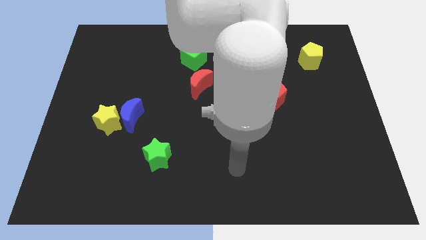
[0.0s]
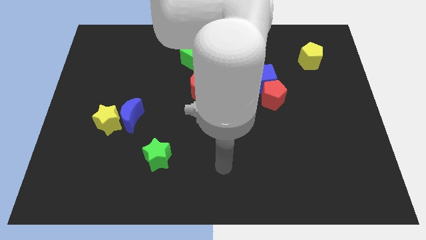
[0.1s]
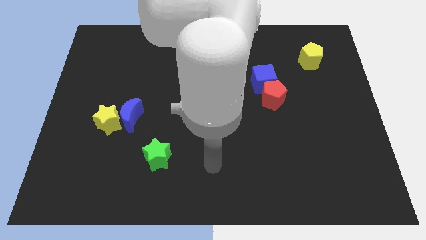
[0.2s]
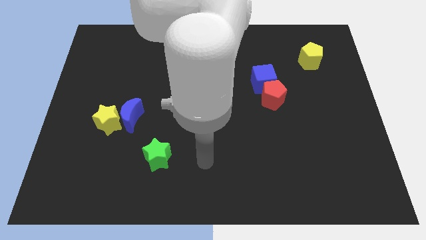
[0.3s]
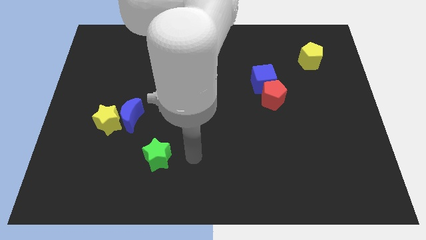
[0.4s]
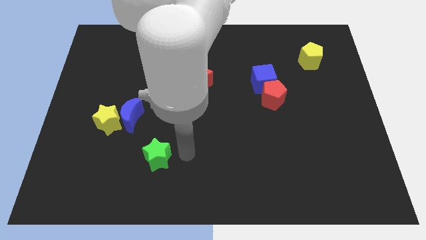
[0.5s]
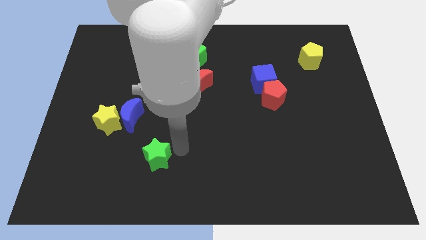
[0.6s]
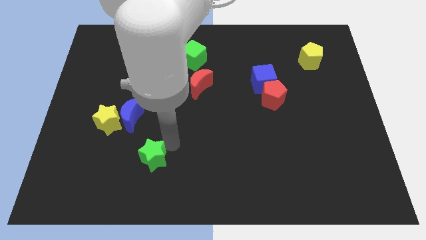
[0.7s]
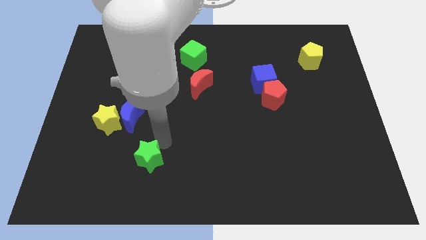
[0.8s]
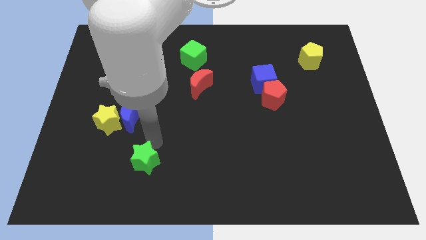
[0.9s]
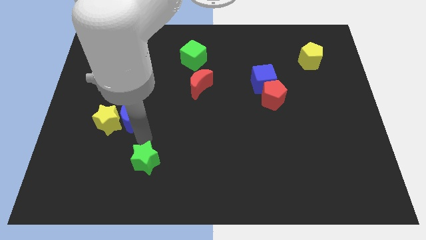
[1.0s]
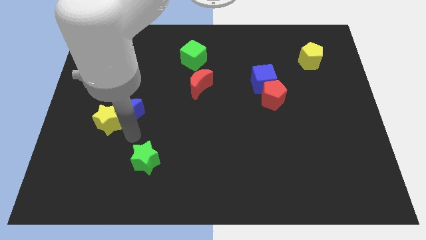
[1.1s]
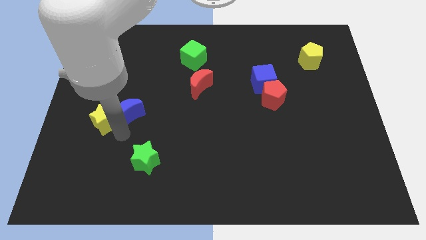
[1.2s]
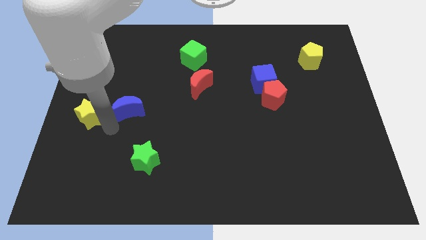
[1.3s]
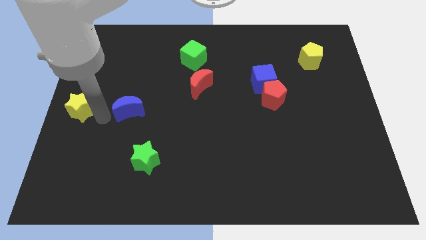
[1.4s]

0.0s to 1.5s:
pull the blue moon apart from the yellow star

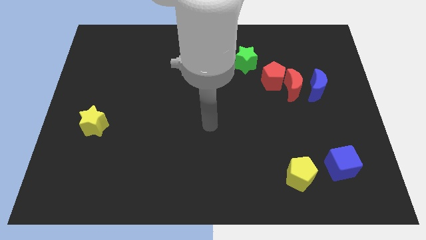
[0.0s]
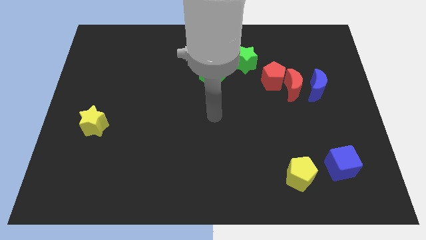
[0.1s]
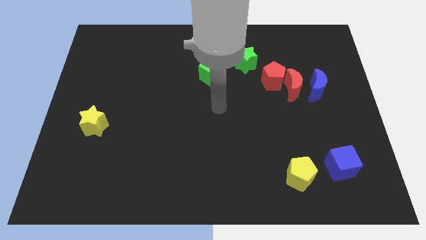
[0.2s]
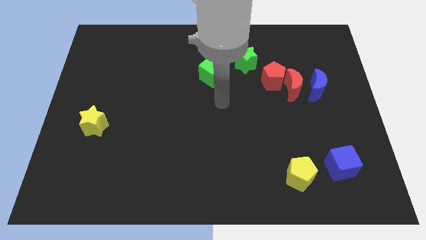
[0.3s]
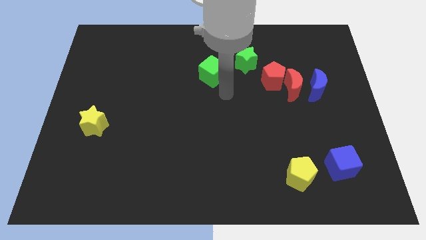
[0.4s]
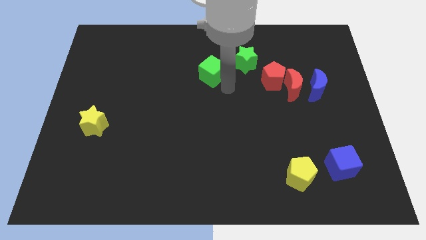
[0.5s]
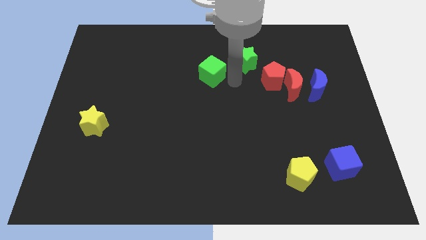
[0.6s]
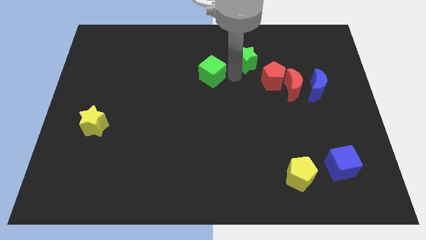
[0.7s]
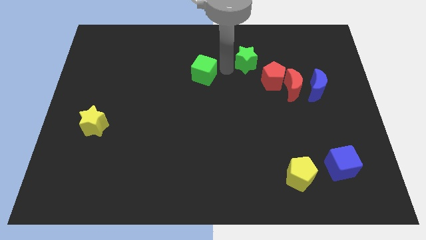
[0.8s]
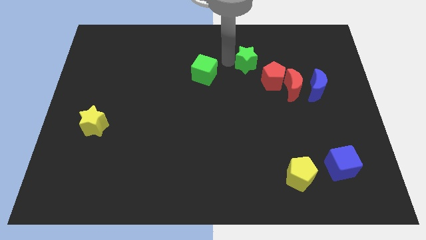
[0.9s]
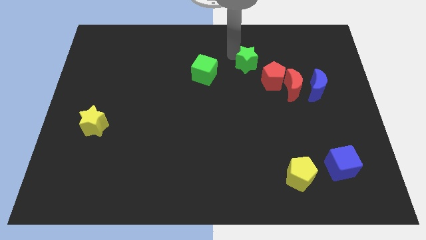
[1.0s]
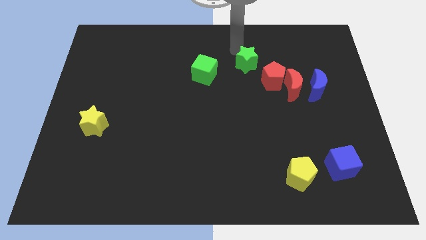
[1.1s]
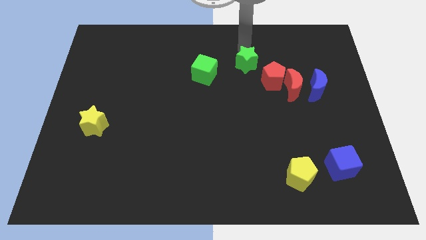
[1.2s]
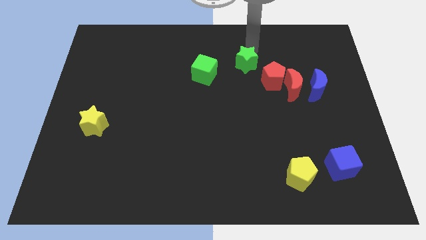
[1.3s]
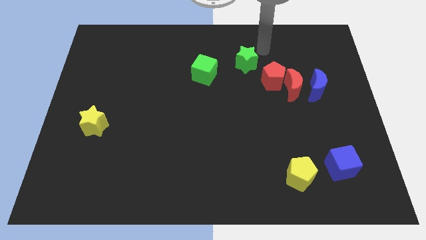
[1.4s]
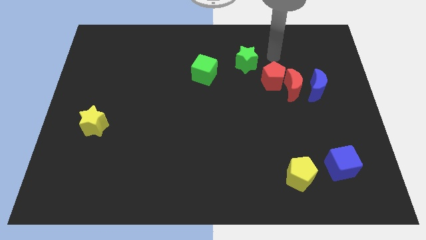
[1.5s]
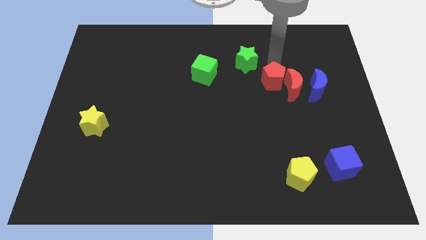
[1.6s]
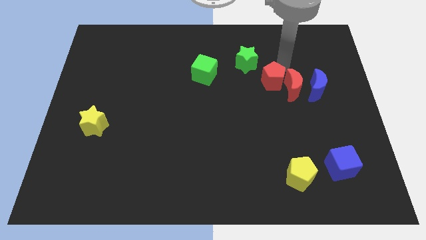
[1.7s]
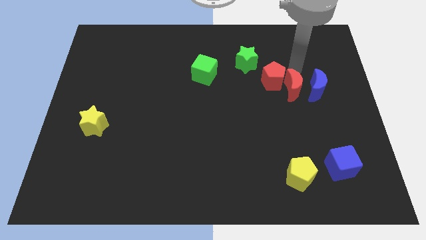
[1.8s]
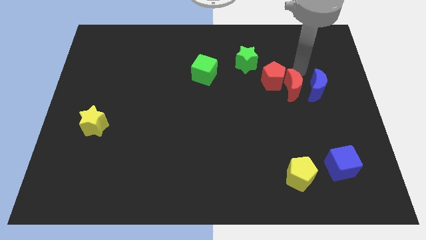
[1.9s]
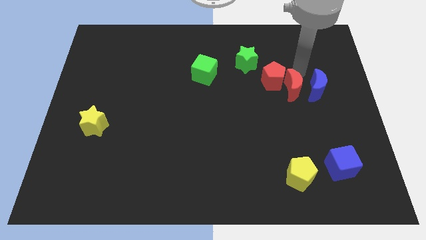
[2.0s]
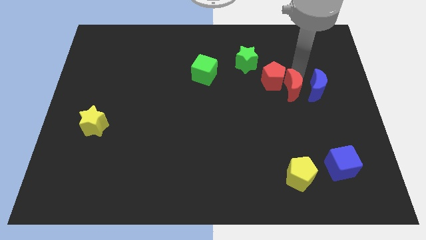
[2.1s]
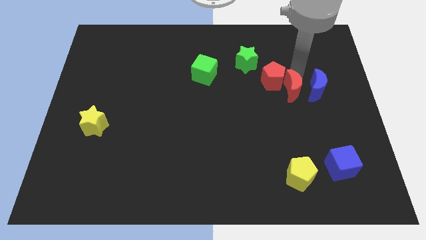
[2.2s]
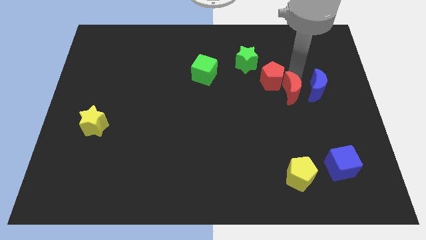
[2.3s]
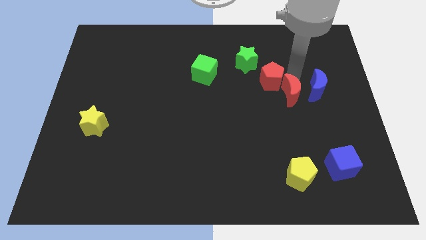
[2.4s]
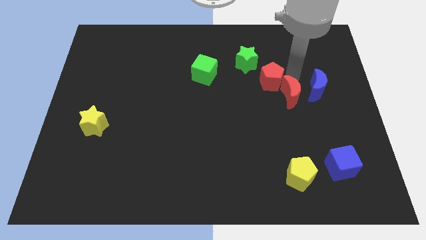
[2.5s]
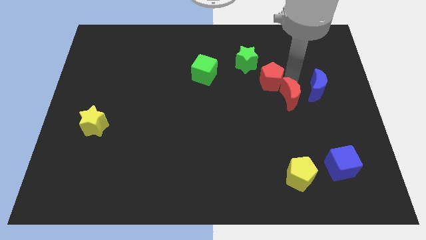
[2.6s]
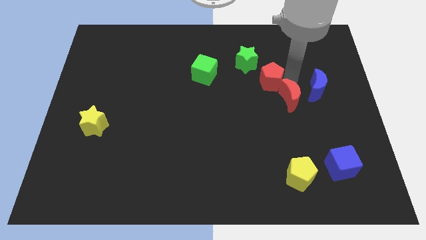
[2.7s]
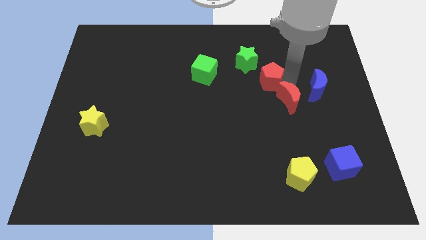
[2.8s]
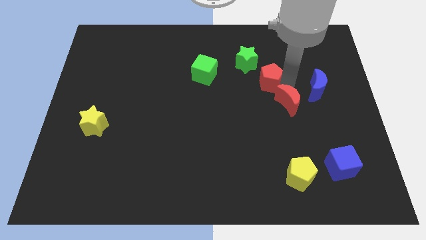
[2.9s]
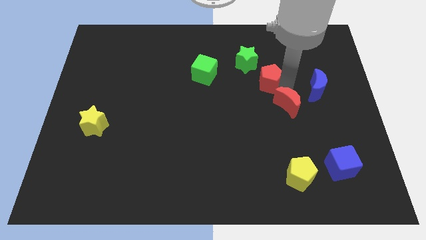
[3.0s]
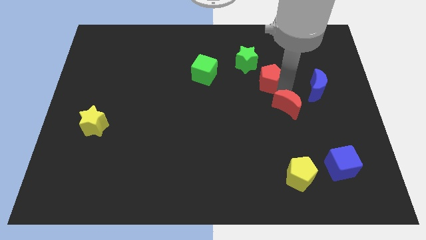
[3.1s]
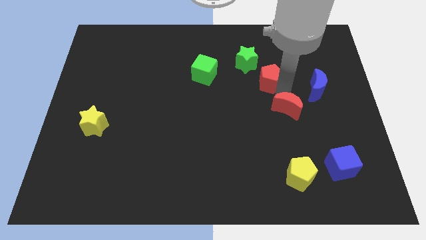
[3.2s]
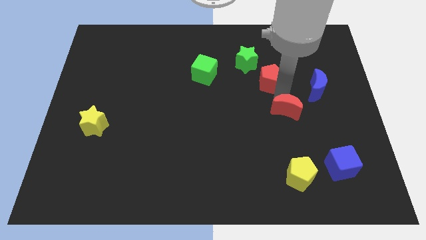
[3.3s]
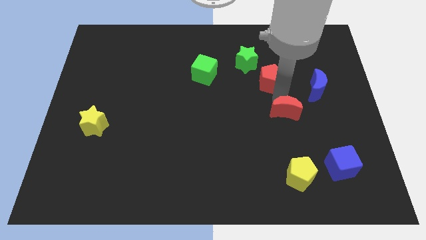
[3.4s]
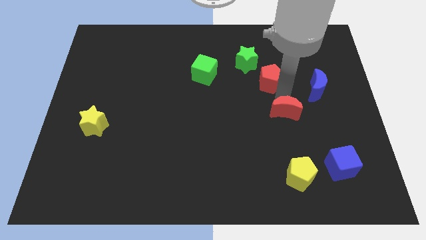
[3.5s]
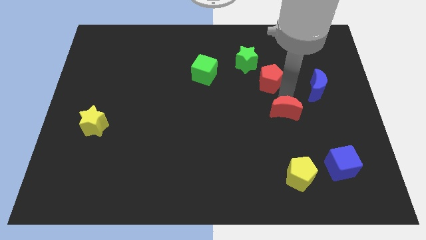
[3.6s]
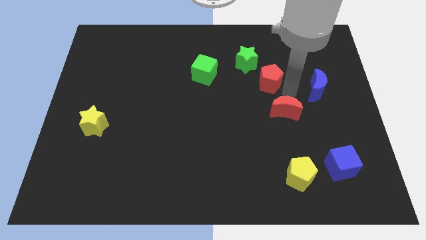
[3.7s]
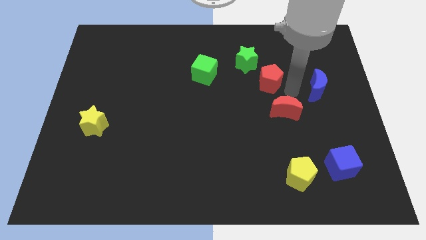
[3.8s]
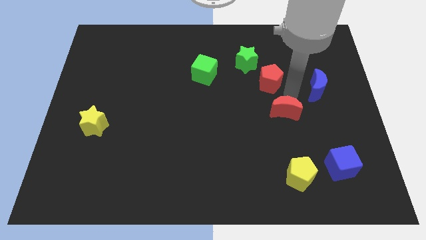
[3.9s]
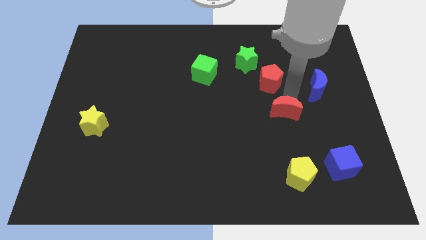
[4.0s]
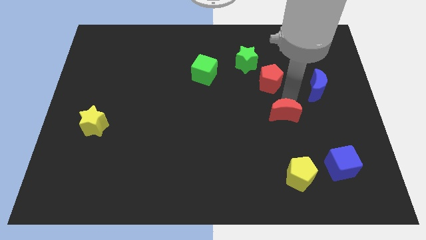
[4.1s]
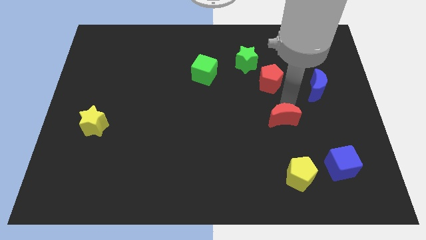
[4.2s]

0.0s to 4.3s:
move the red moon away from the red pentagon and blue moon

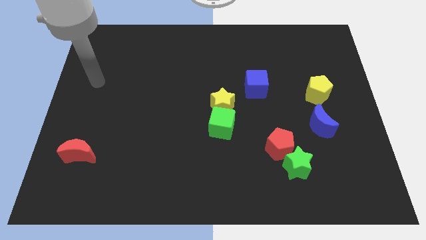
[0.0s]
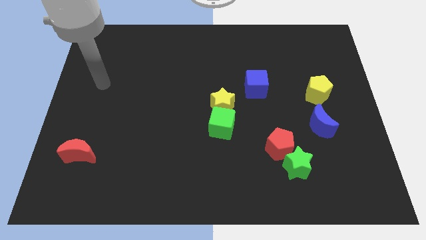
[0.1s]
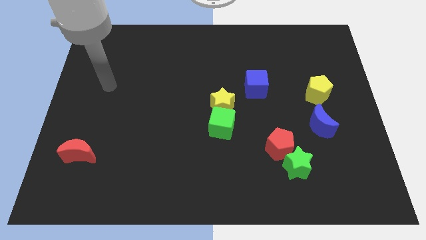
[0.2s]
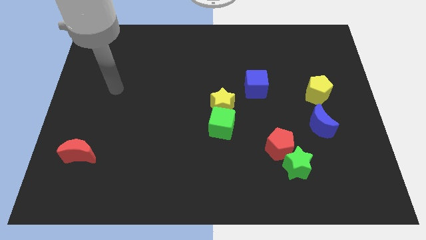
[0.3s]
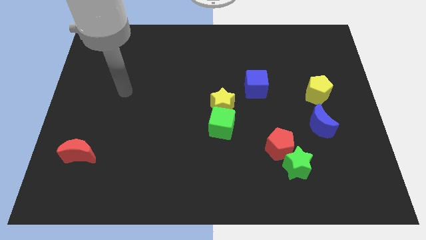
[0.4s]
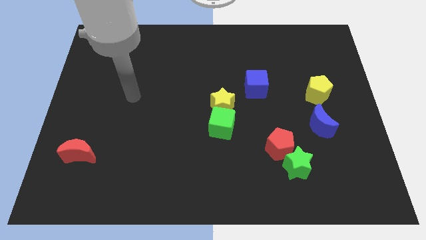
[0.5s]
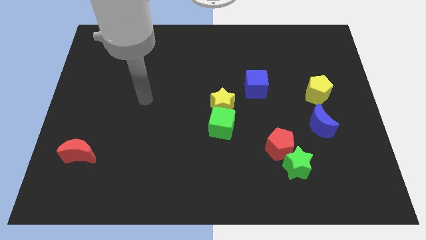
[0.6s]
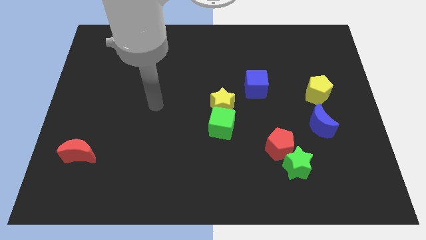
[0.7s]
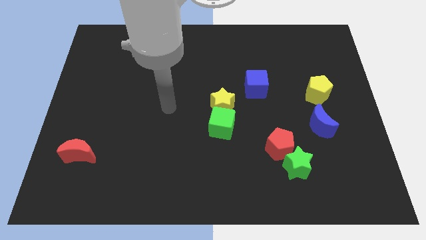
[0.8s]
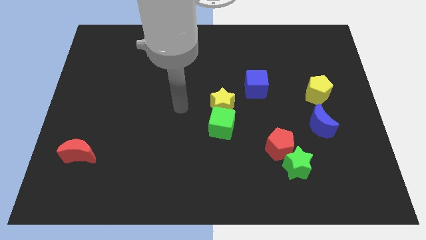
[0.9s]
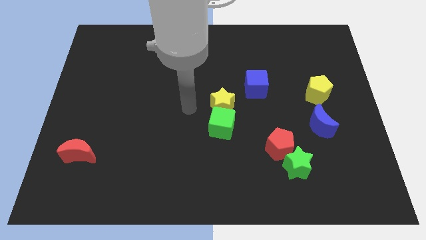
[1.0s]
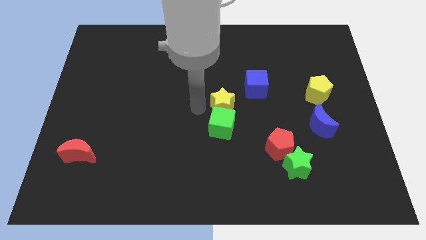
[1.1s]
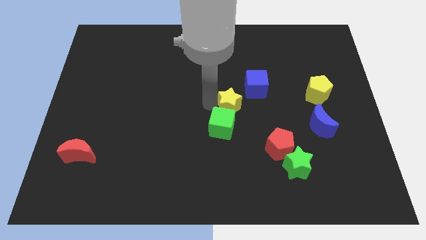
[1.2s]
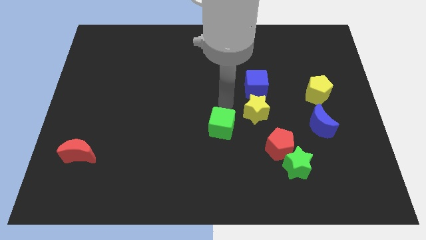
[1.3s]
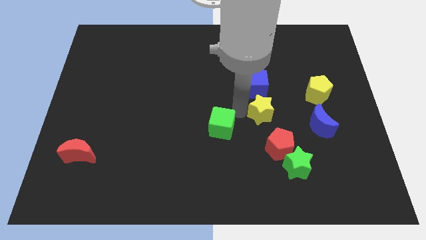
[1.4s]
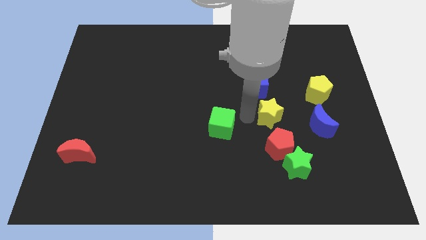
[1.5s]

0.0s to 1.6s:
pull the green cube apart from the yellow star

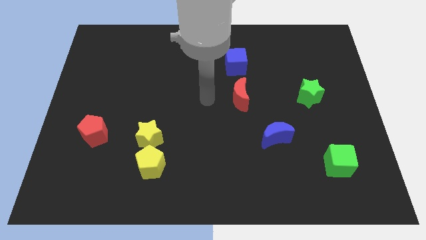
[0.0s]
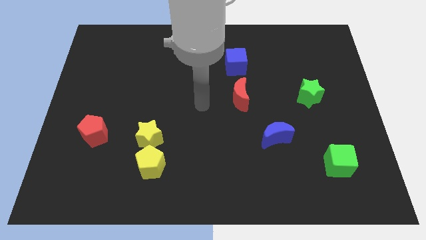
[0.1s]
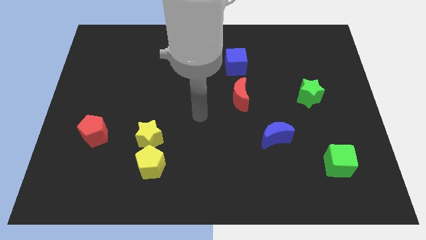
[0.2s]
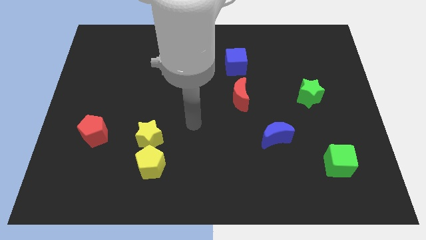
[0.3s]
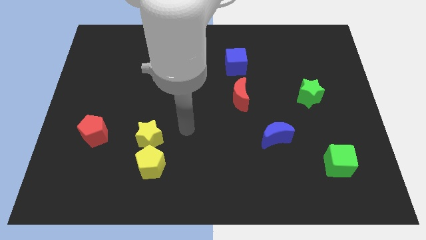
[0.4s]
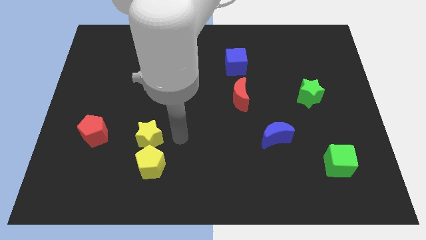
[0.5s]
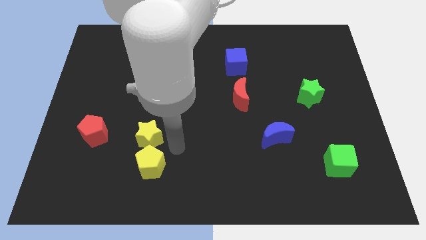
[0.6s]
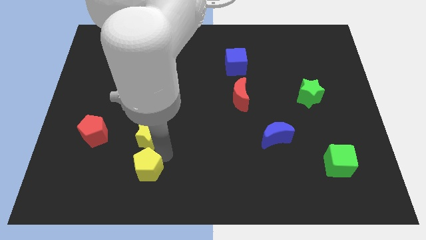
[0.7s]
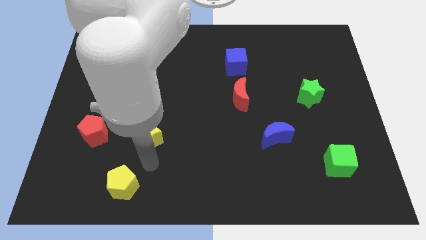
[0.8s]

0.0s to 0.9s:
move the yellow star away from the yellow pentagon

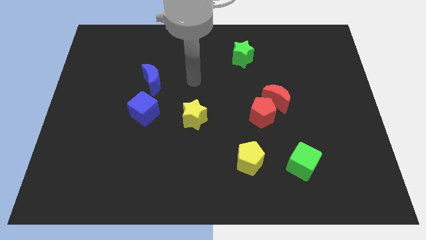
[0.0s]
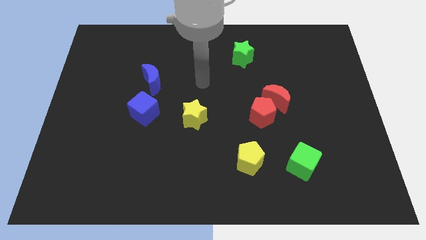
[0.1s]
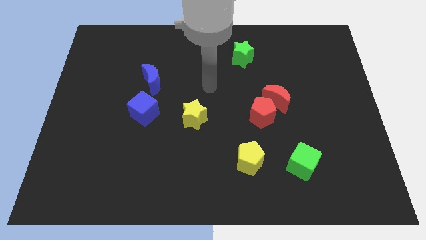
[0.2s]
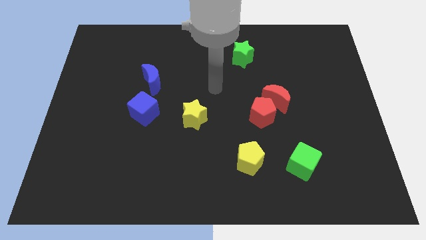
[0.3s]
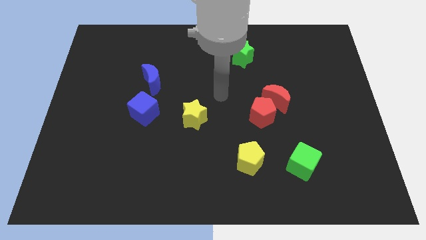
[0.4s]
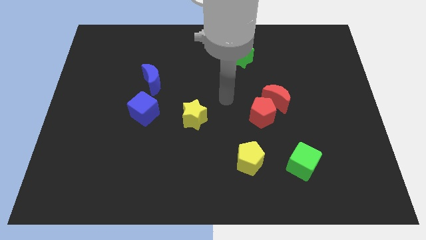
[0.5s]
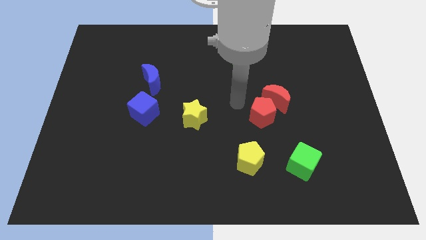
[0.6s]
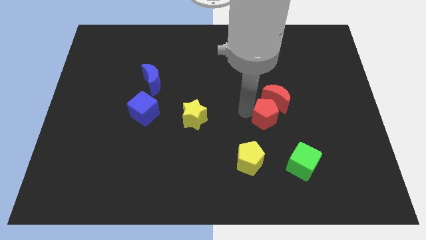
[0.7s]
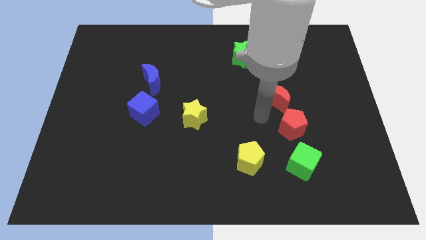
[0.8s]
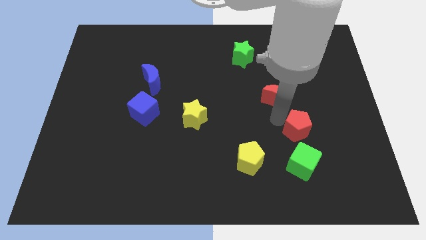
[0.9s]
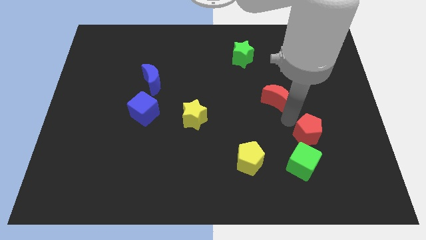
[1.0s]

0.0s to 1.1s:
pull the red moon apart from the red pentagon
